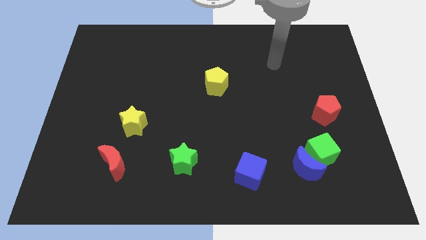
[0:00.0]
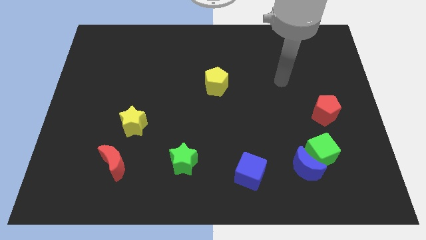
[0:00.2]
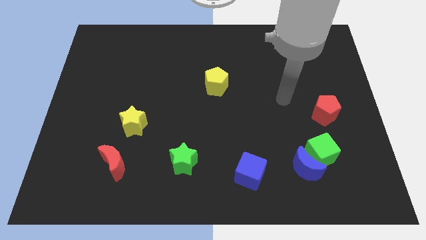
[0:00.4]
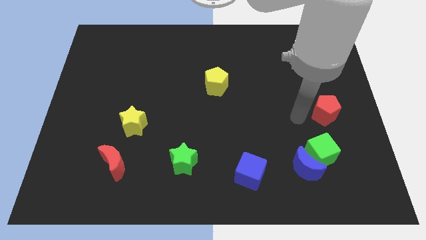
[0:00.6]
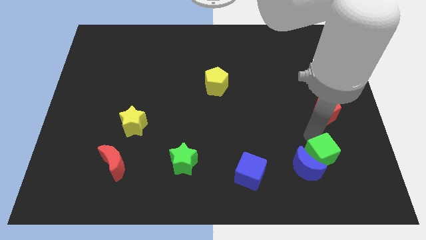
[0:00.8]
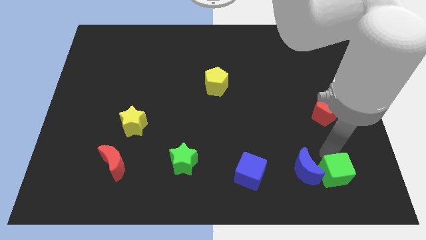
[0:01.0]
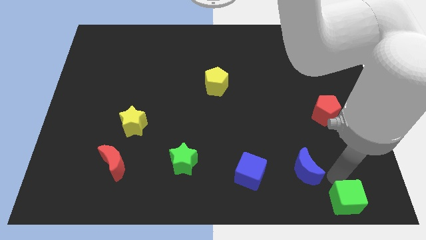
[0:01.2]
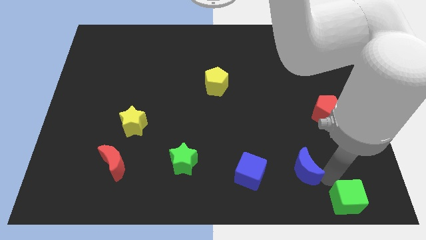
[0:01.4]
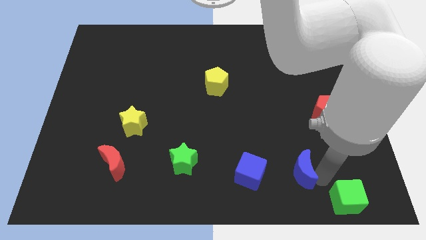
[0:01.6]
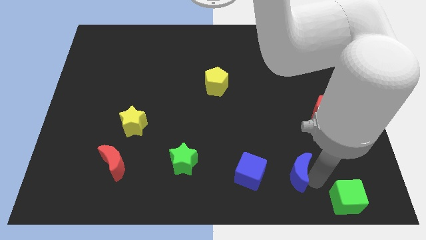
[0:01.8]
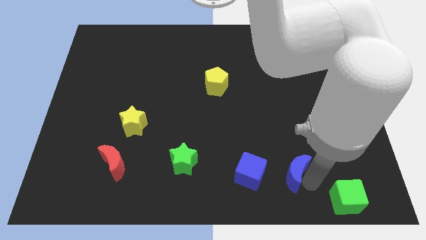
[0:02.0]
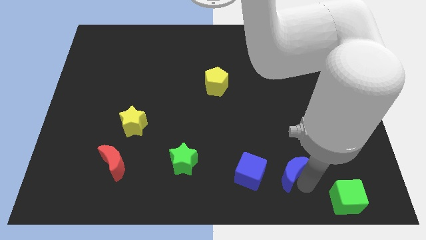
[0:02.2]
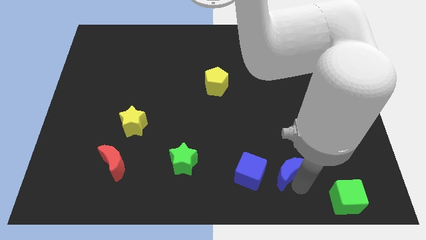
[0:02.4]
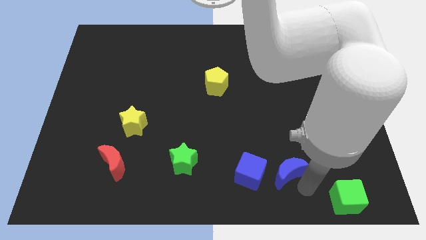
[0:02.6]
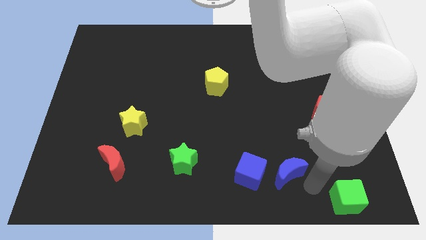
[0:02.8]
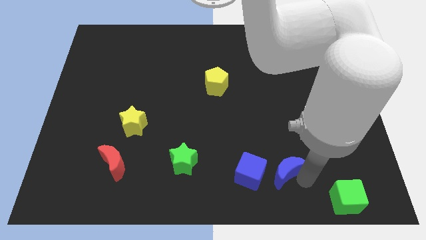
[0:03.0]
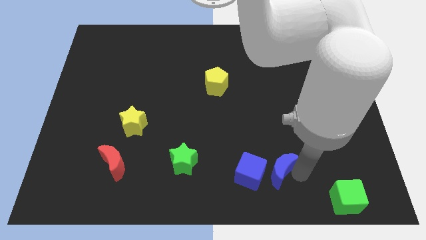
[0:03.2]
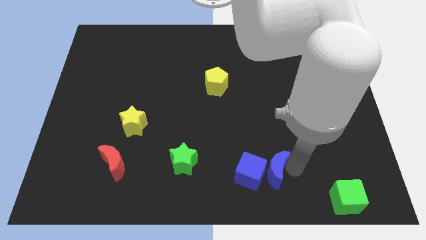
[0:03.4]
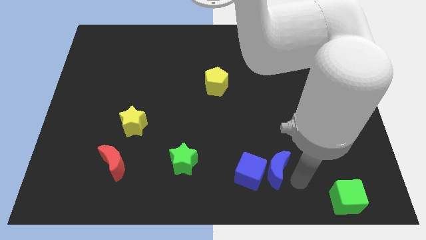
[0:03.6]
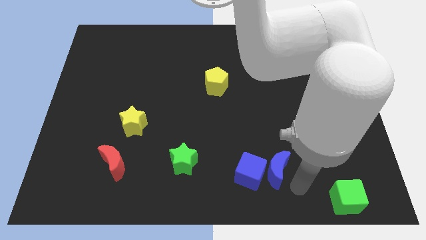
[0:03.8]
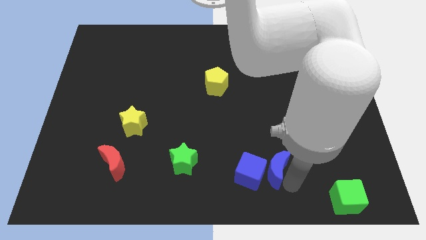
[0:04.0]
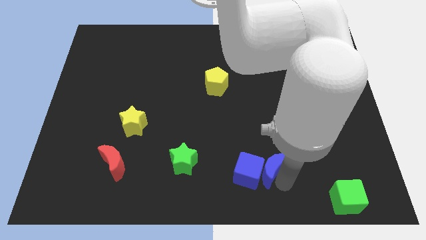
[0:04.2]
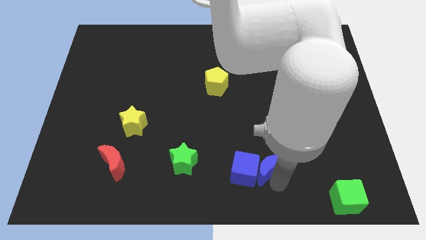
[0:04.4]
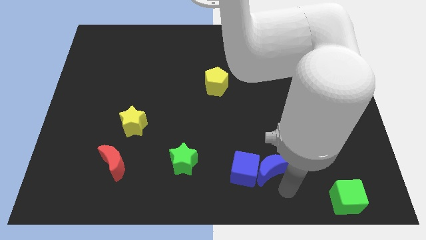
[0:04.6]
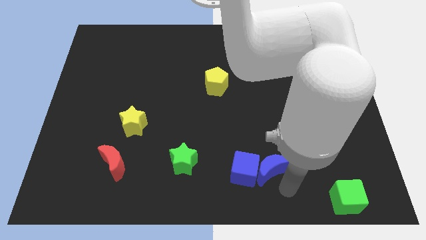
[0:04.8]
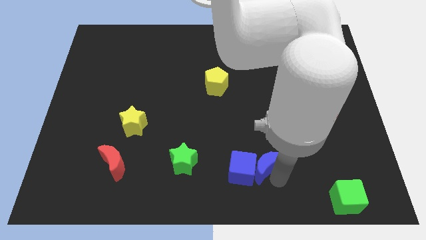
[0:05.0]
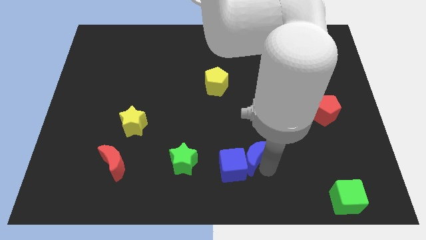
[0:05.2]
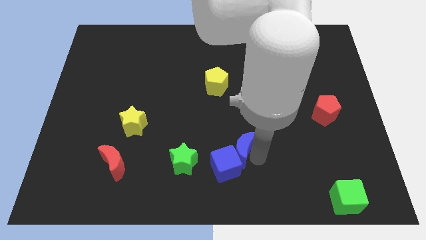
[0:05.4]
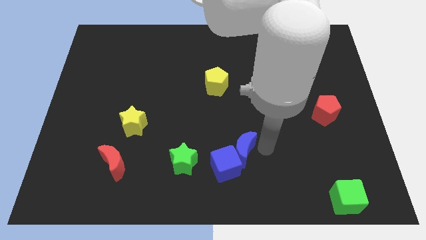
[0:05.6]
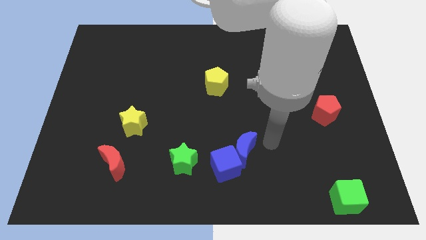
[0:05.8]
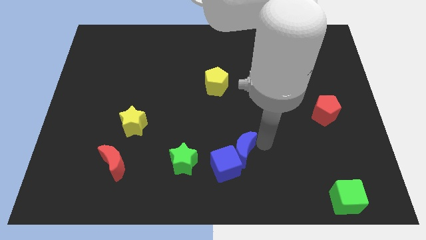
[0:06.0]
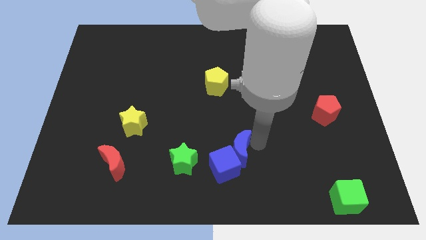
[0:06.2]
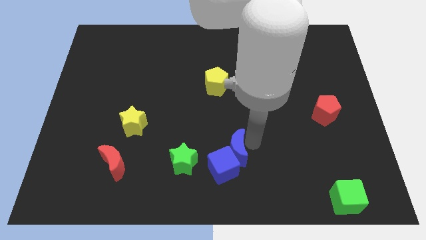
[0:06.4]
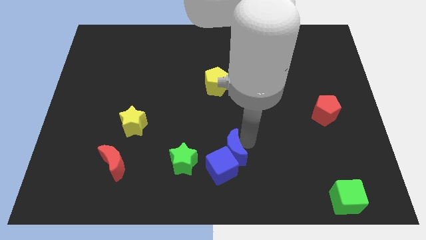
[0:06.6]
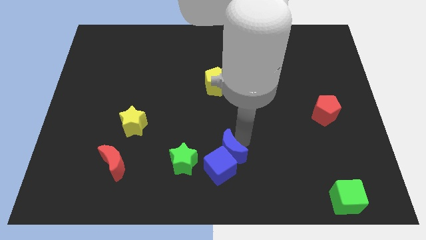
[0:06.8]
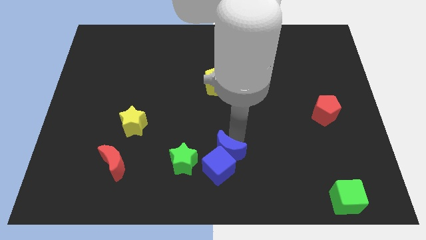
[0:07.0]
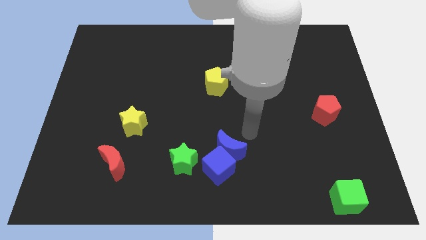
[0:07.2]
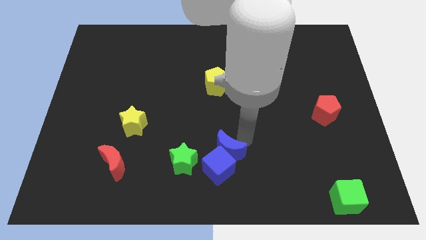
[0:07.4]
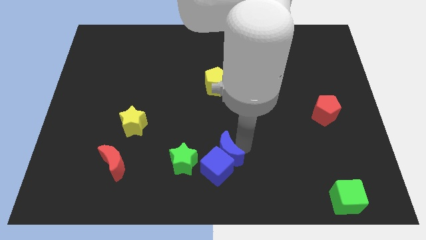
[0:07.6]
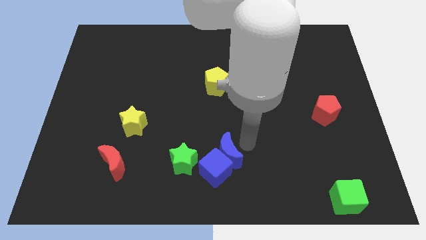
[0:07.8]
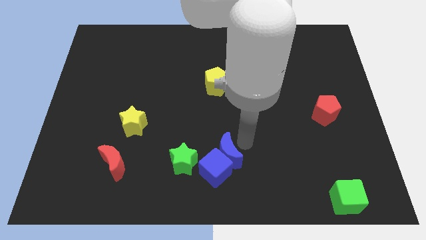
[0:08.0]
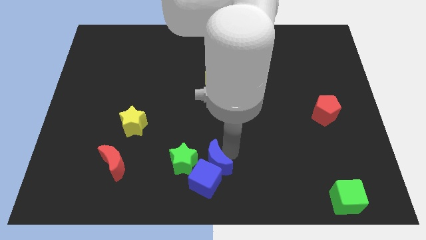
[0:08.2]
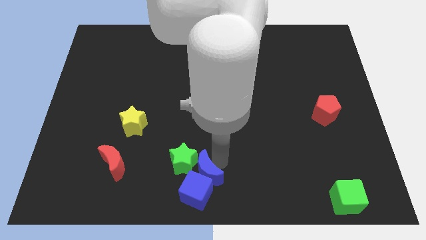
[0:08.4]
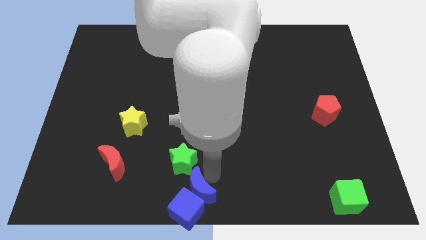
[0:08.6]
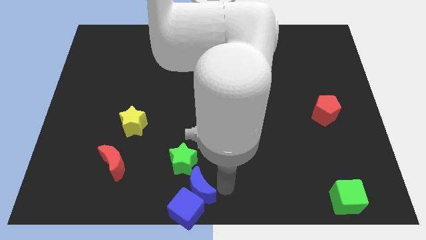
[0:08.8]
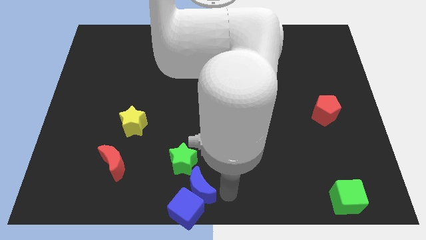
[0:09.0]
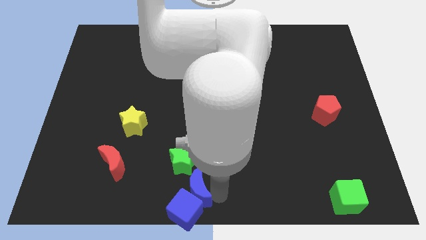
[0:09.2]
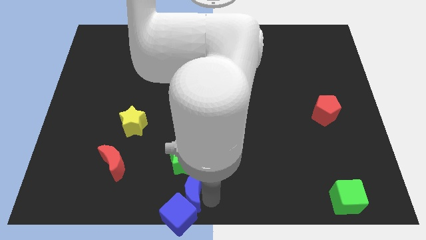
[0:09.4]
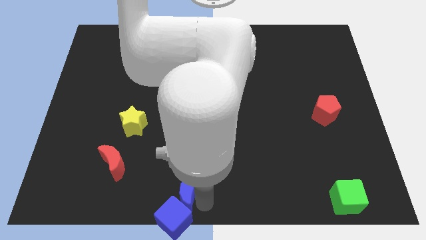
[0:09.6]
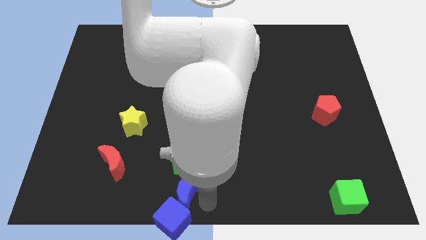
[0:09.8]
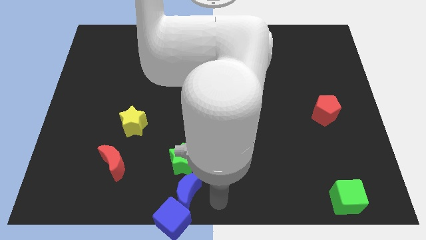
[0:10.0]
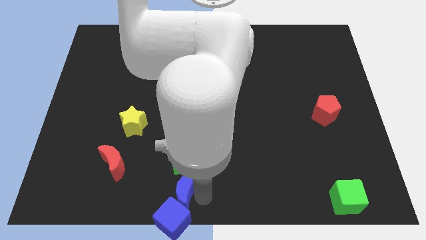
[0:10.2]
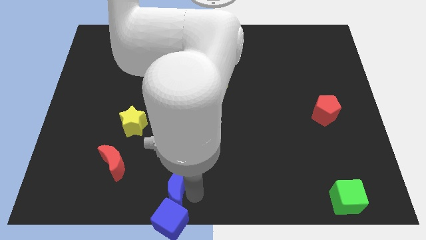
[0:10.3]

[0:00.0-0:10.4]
move the blue moon diagonally down and to the left of the green star

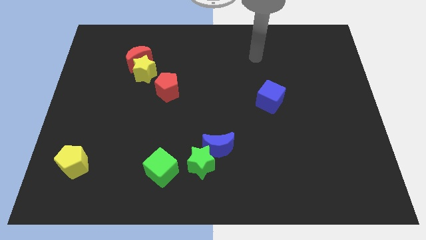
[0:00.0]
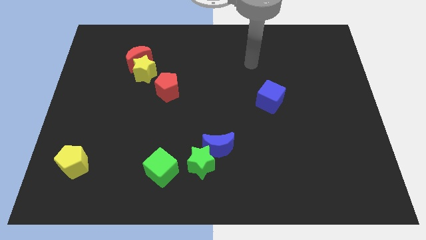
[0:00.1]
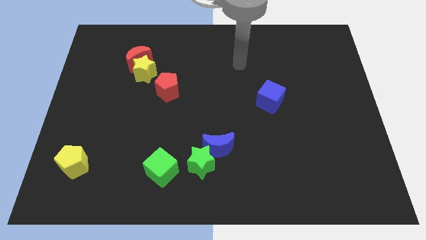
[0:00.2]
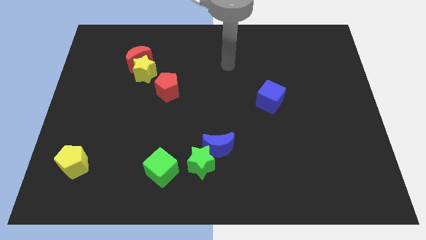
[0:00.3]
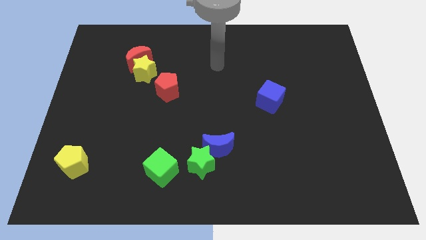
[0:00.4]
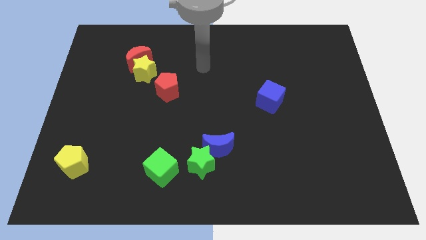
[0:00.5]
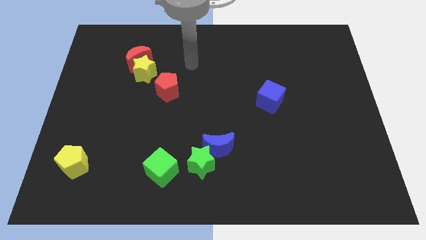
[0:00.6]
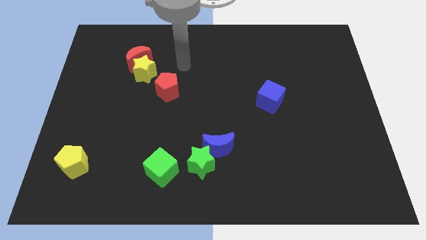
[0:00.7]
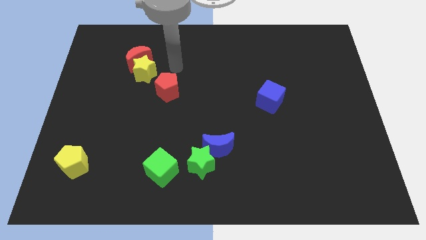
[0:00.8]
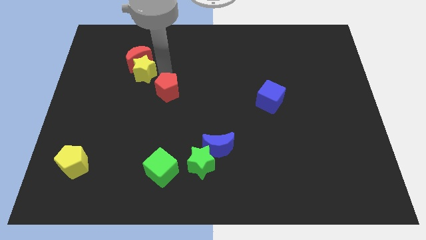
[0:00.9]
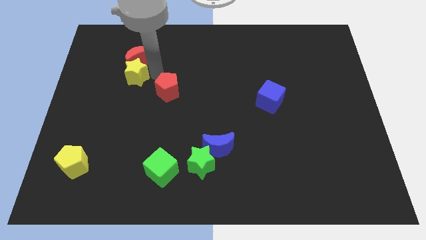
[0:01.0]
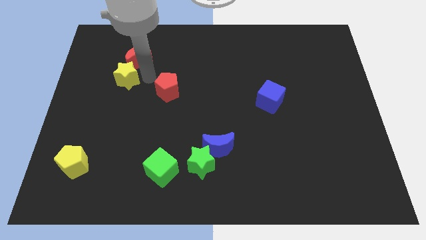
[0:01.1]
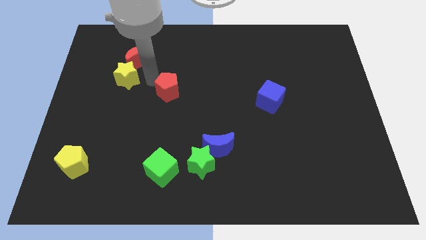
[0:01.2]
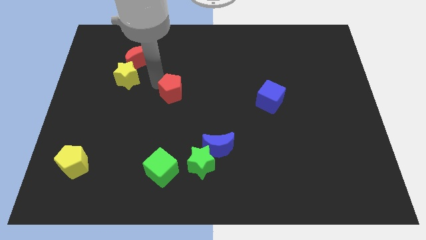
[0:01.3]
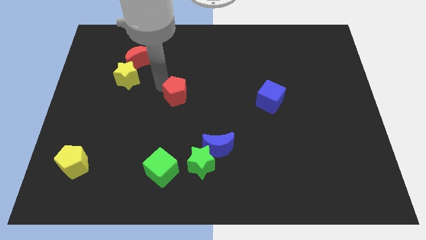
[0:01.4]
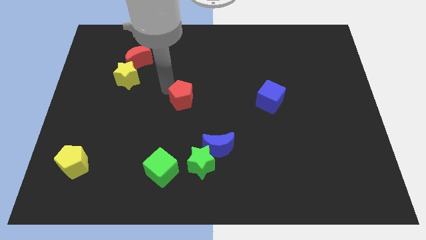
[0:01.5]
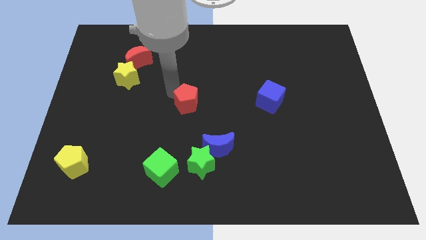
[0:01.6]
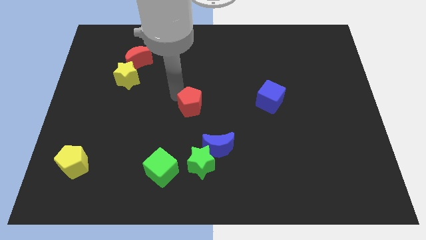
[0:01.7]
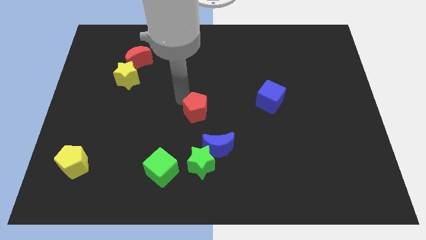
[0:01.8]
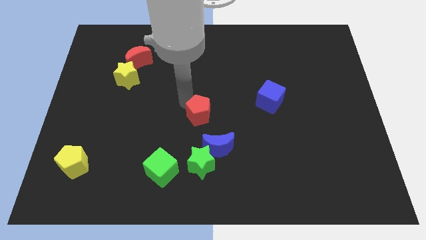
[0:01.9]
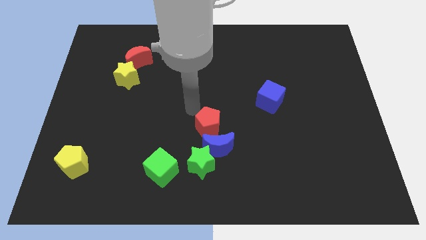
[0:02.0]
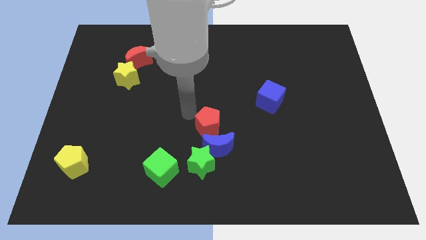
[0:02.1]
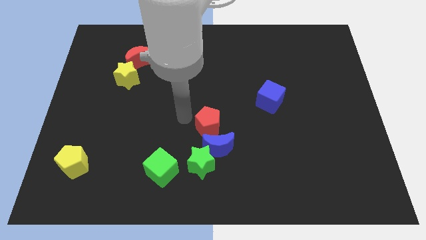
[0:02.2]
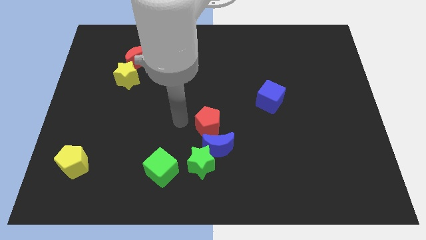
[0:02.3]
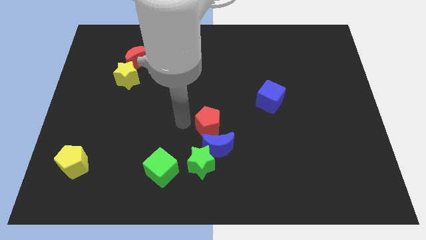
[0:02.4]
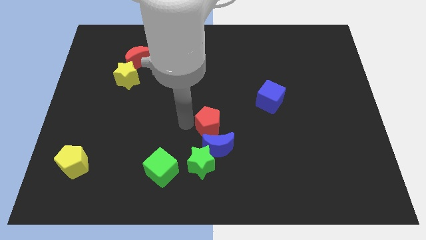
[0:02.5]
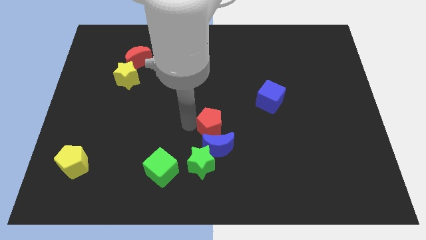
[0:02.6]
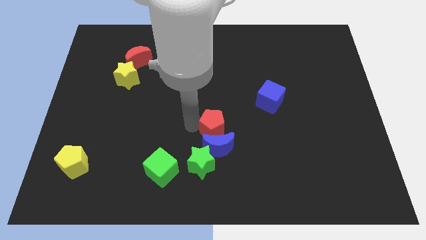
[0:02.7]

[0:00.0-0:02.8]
slide the red pentagon to the top right side of the blue moon
